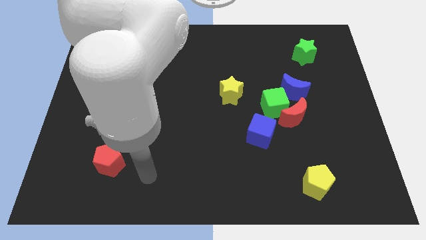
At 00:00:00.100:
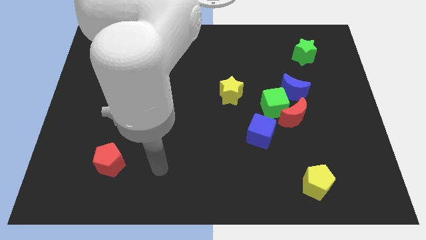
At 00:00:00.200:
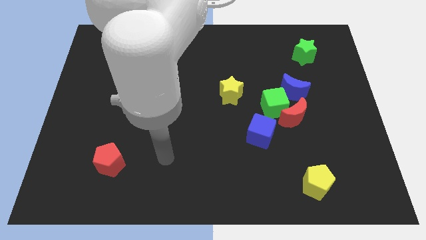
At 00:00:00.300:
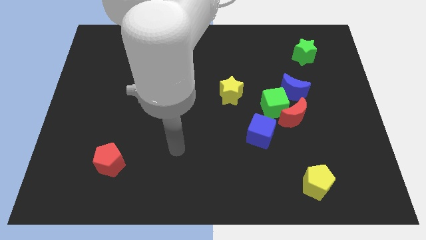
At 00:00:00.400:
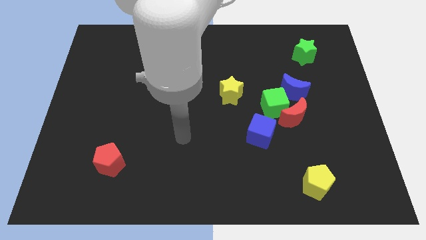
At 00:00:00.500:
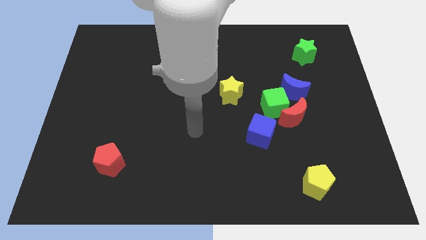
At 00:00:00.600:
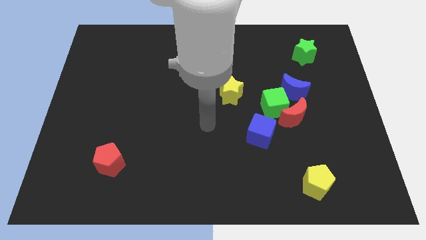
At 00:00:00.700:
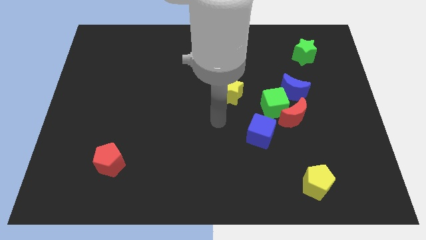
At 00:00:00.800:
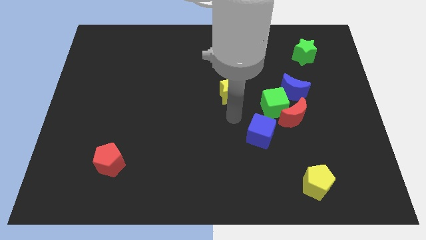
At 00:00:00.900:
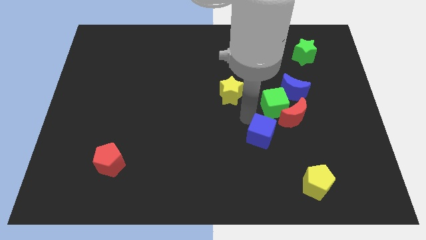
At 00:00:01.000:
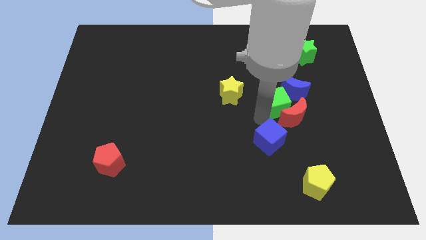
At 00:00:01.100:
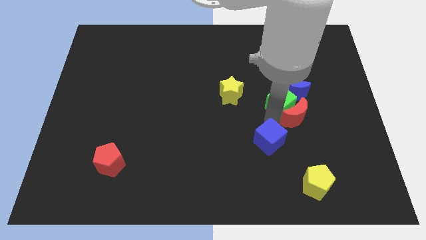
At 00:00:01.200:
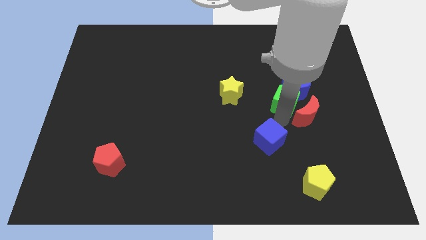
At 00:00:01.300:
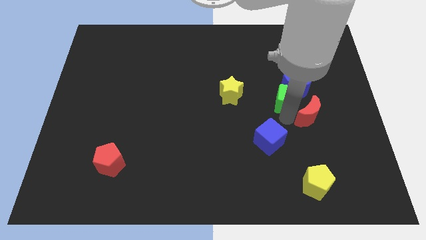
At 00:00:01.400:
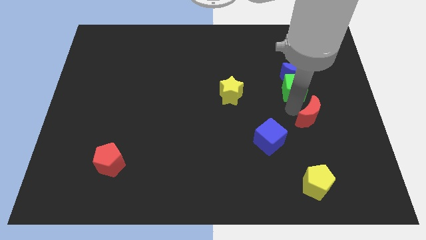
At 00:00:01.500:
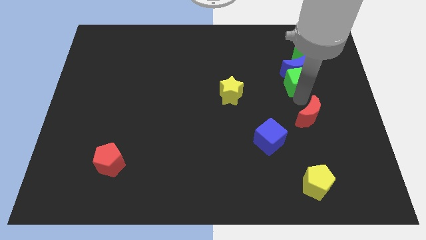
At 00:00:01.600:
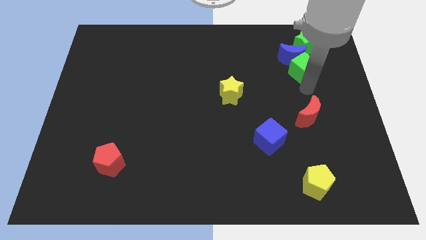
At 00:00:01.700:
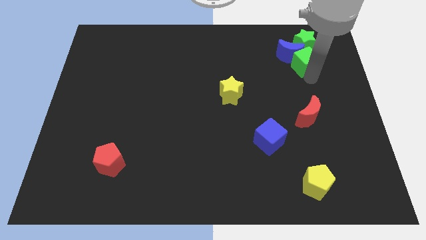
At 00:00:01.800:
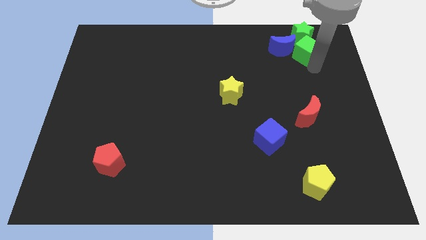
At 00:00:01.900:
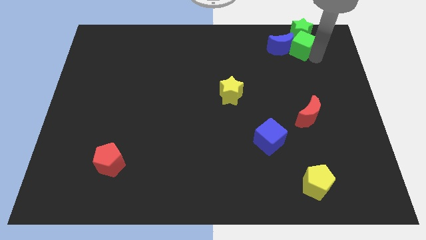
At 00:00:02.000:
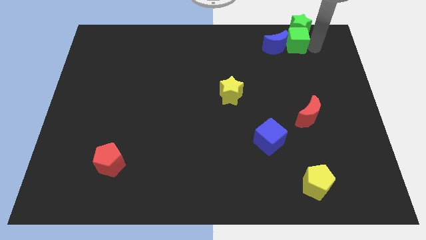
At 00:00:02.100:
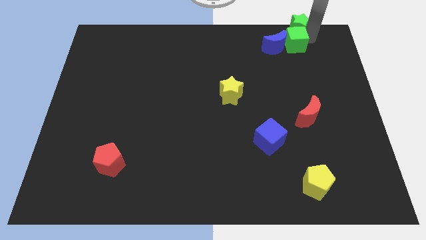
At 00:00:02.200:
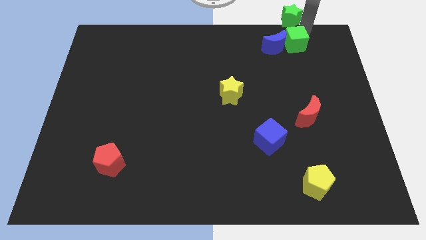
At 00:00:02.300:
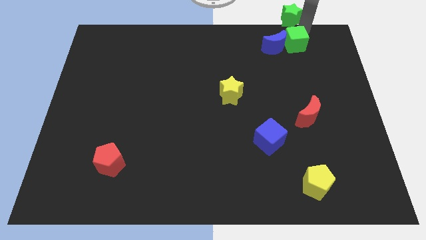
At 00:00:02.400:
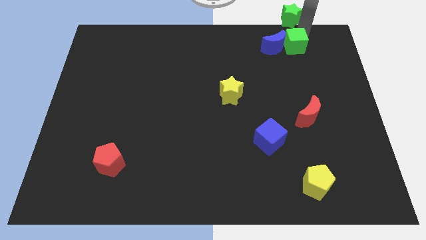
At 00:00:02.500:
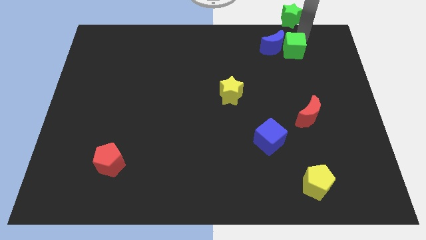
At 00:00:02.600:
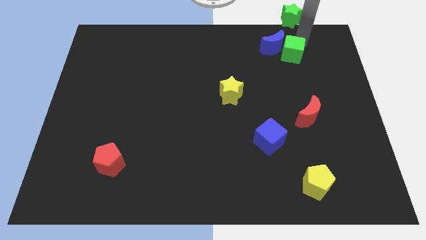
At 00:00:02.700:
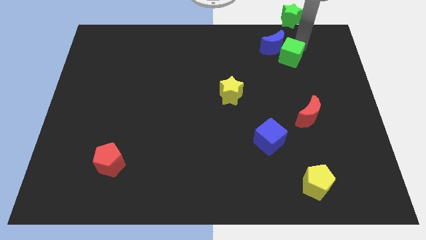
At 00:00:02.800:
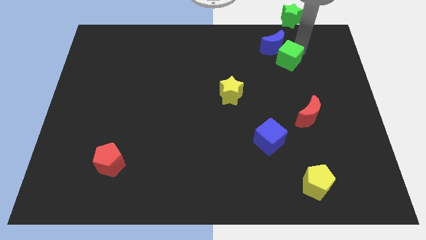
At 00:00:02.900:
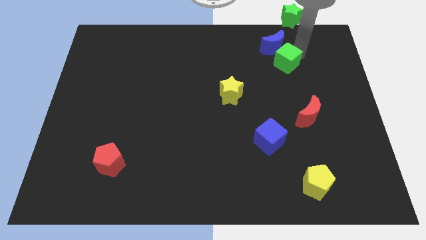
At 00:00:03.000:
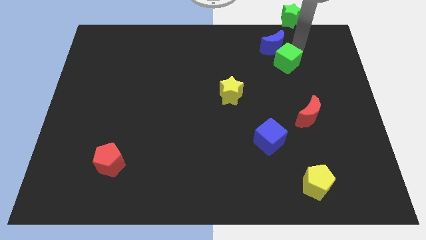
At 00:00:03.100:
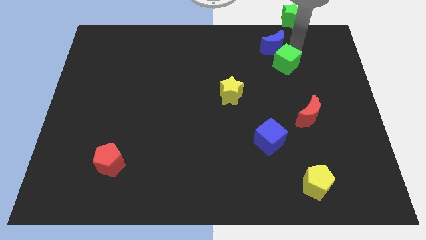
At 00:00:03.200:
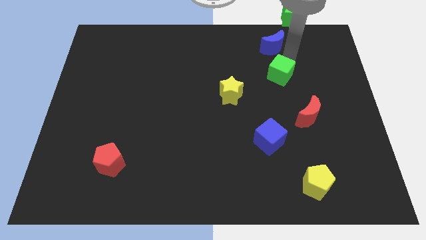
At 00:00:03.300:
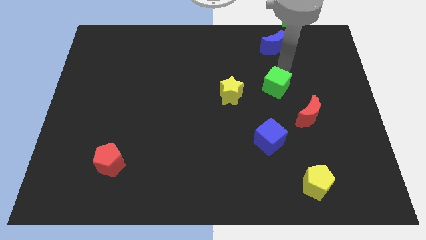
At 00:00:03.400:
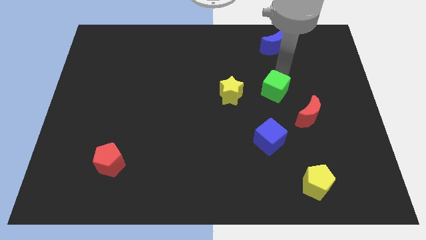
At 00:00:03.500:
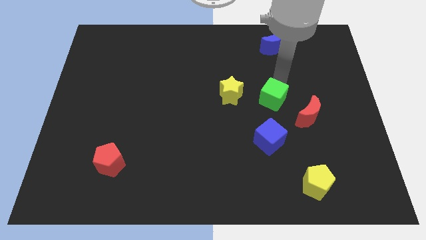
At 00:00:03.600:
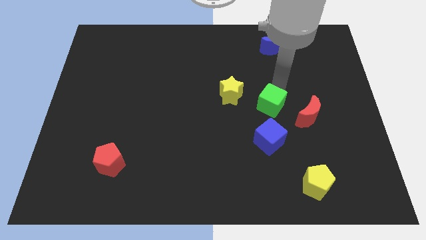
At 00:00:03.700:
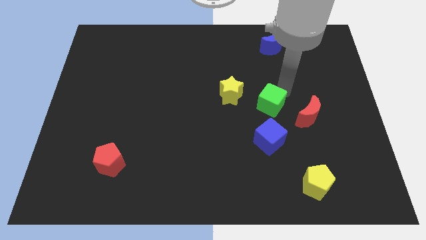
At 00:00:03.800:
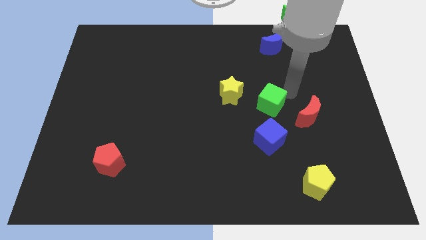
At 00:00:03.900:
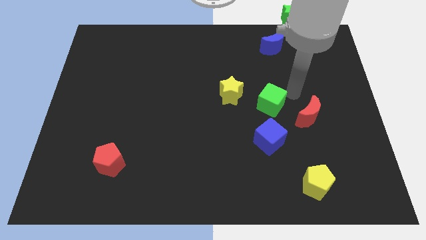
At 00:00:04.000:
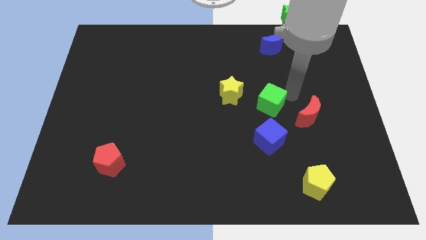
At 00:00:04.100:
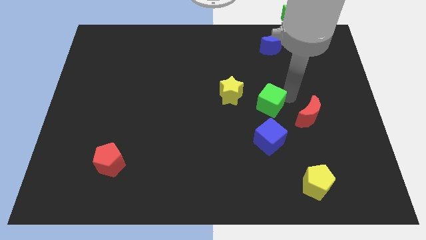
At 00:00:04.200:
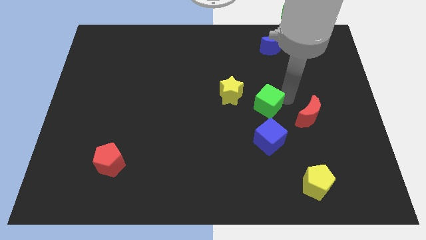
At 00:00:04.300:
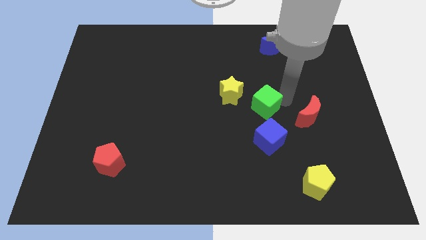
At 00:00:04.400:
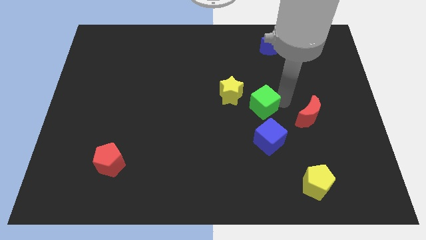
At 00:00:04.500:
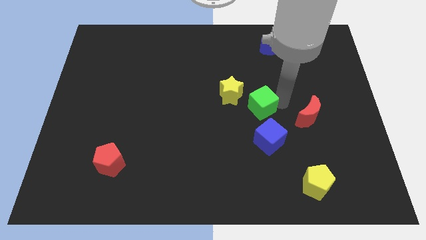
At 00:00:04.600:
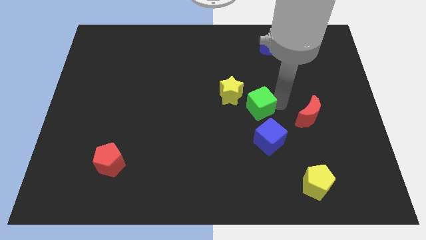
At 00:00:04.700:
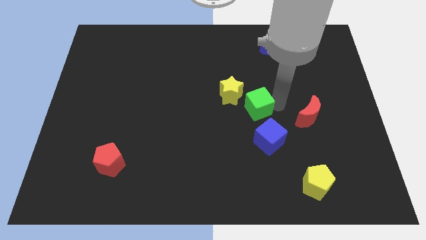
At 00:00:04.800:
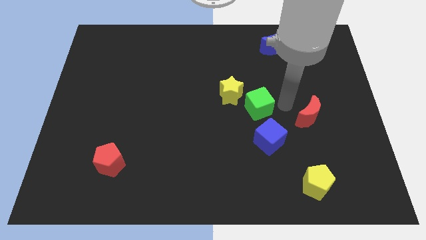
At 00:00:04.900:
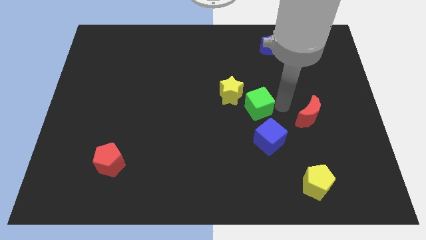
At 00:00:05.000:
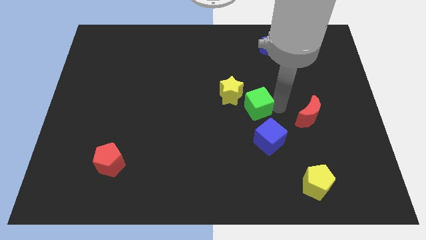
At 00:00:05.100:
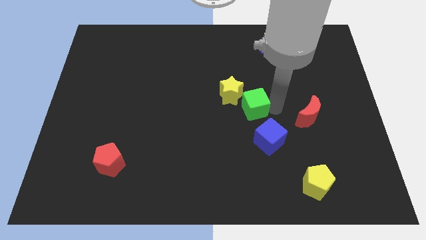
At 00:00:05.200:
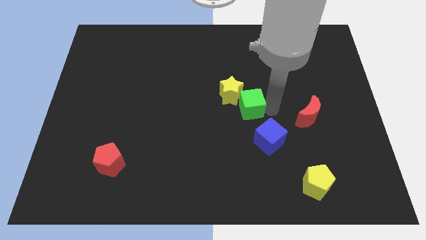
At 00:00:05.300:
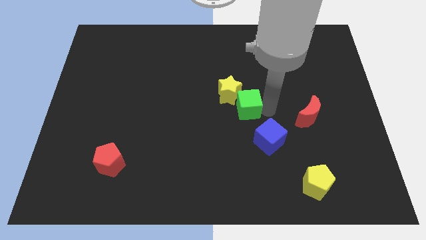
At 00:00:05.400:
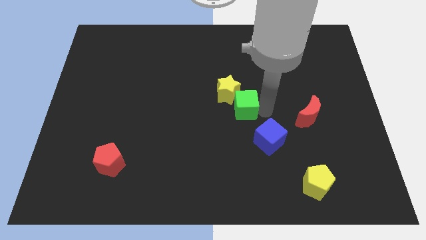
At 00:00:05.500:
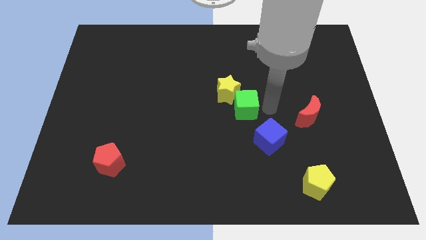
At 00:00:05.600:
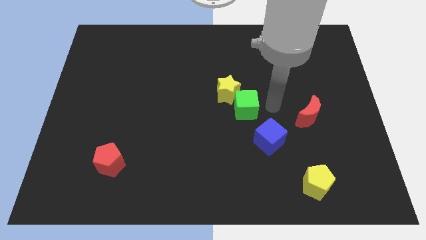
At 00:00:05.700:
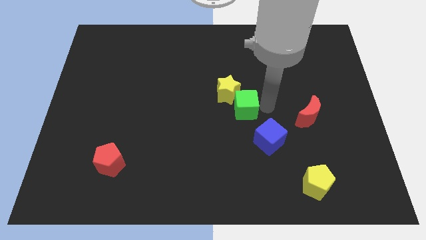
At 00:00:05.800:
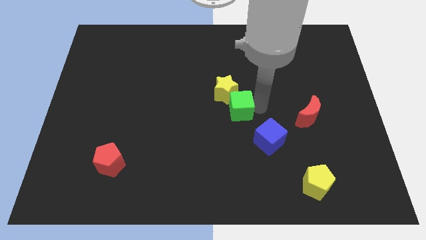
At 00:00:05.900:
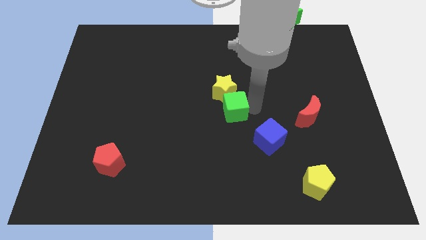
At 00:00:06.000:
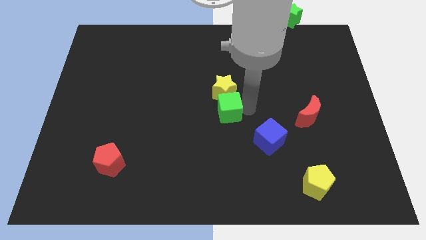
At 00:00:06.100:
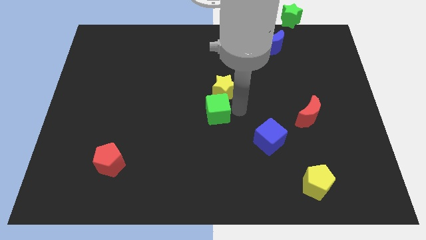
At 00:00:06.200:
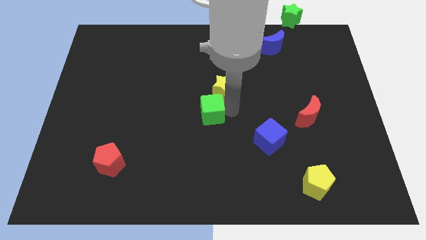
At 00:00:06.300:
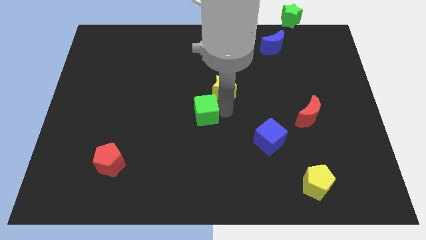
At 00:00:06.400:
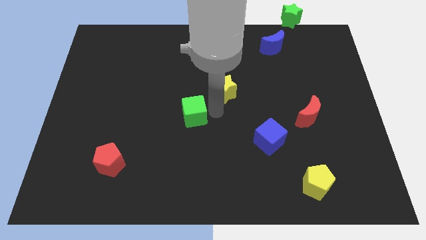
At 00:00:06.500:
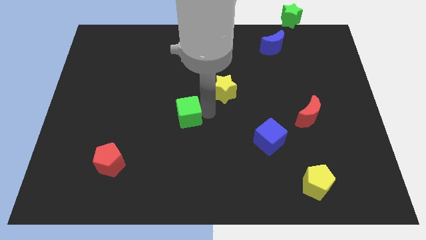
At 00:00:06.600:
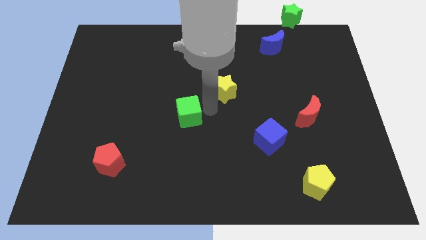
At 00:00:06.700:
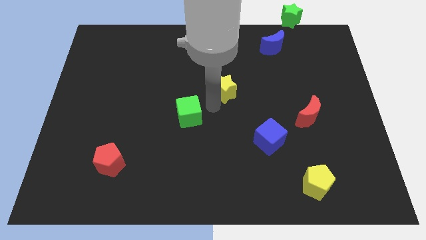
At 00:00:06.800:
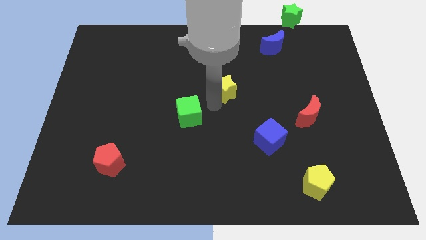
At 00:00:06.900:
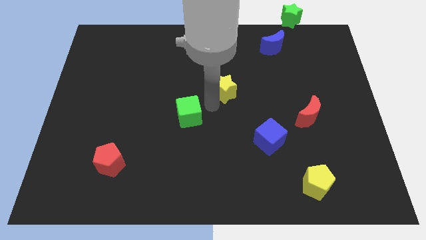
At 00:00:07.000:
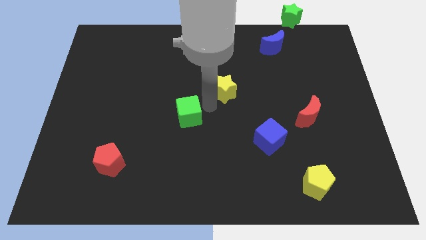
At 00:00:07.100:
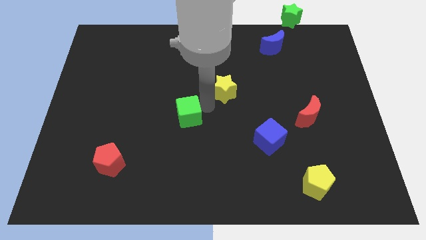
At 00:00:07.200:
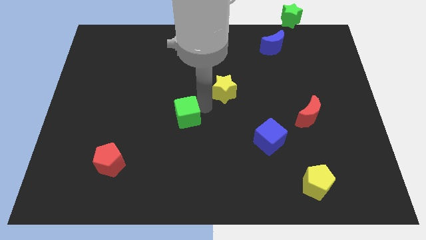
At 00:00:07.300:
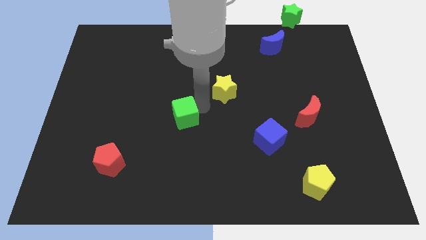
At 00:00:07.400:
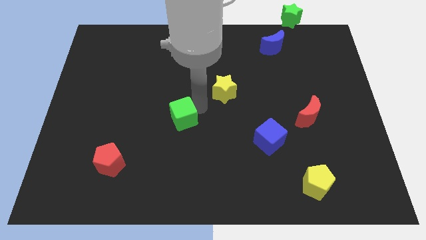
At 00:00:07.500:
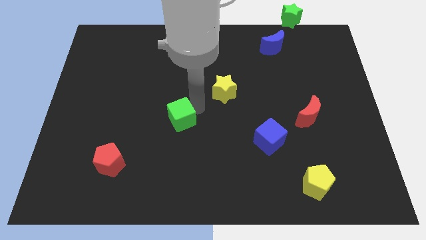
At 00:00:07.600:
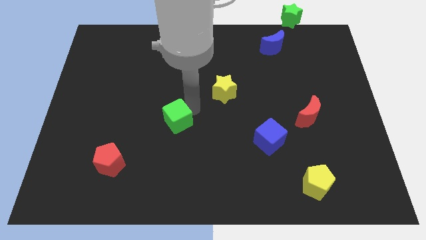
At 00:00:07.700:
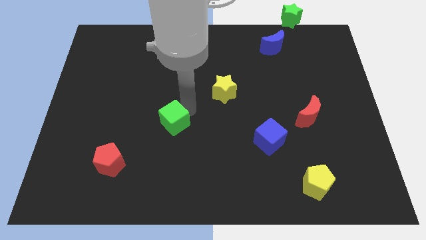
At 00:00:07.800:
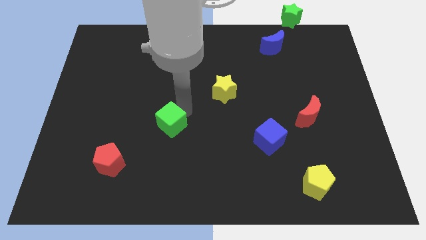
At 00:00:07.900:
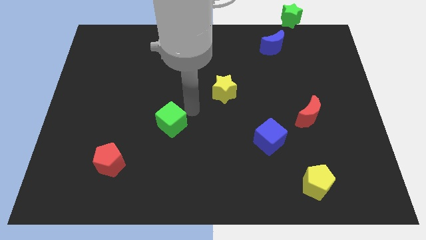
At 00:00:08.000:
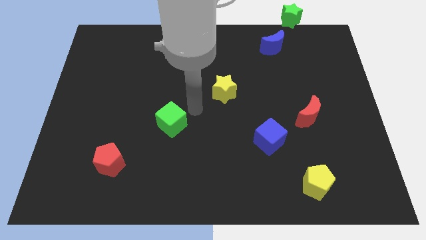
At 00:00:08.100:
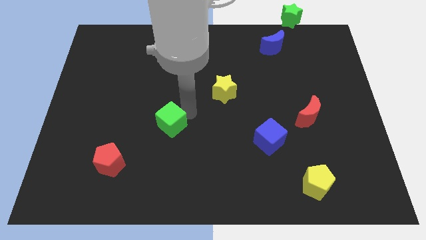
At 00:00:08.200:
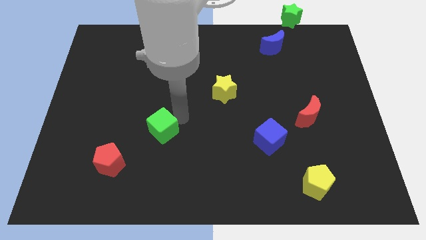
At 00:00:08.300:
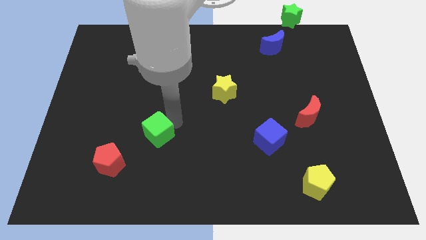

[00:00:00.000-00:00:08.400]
move the green cube to the top right of the red pentagon
